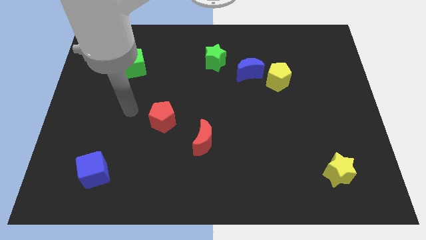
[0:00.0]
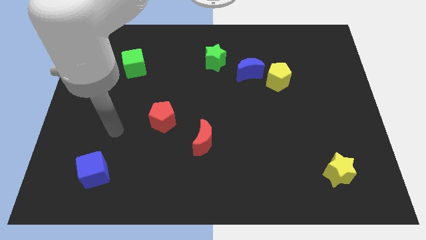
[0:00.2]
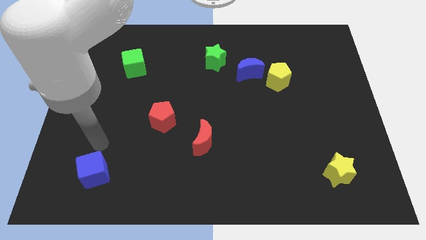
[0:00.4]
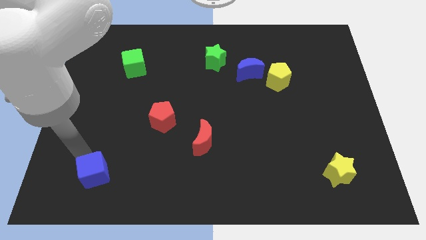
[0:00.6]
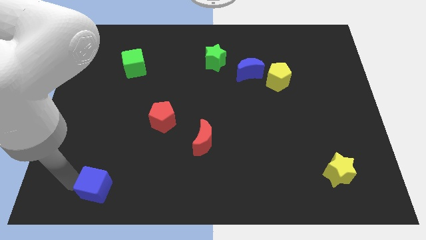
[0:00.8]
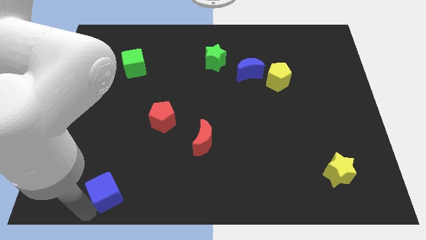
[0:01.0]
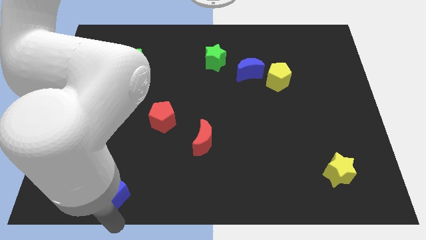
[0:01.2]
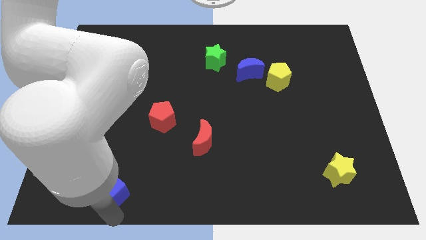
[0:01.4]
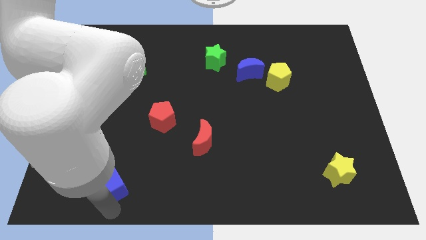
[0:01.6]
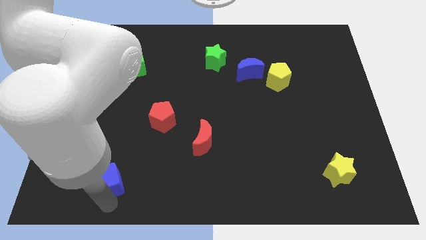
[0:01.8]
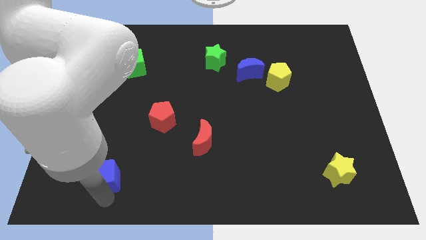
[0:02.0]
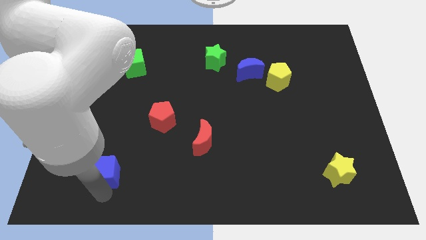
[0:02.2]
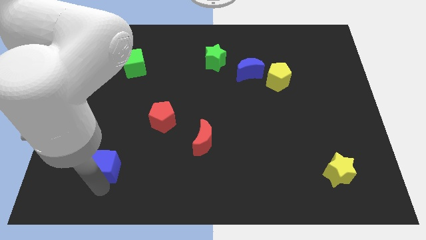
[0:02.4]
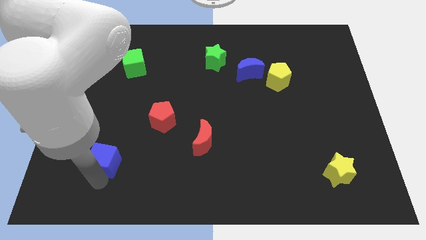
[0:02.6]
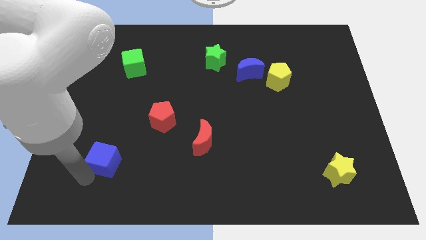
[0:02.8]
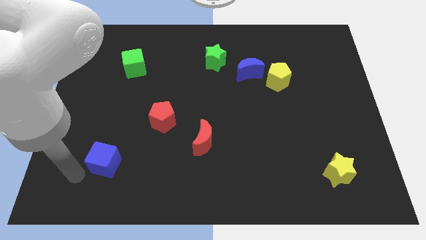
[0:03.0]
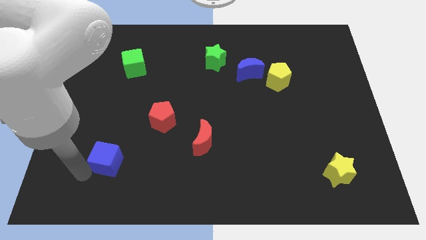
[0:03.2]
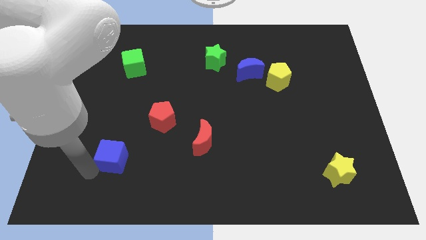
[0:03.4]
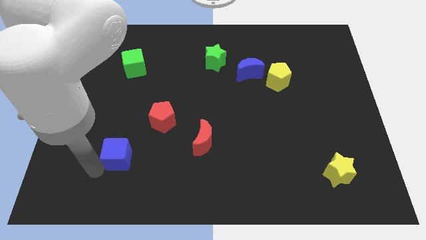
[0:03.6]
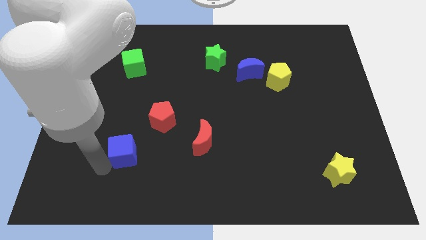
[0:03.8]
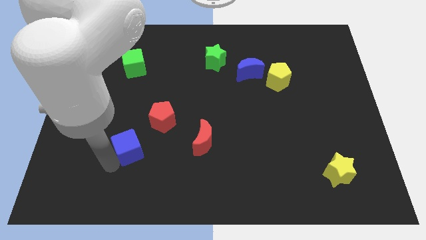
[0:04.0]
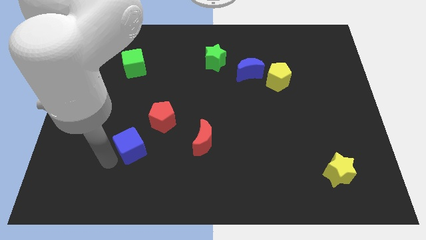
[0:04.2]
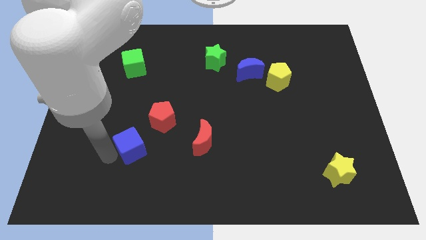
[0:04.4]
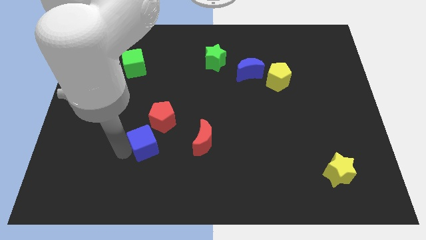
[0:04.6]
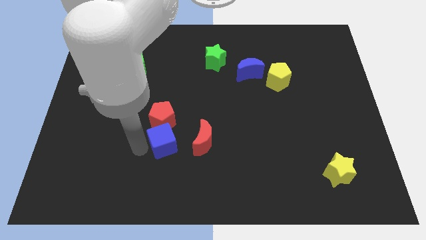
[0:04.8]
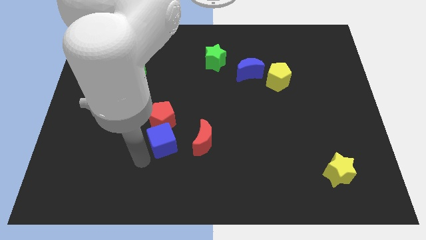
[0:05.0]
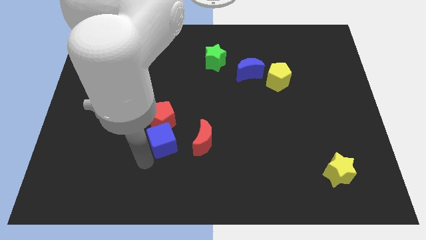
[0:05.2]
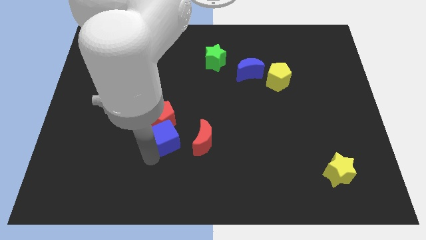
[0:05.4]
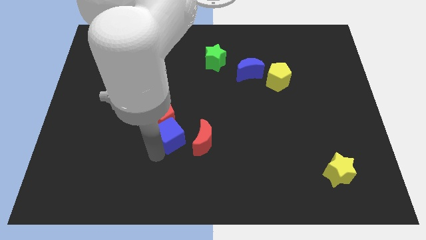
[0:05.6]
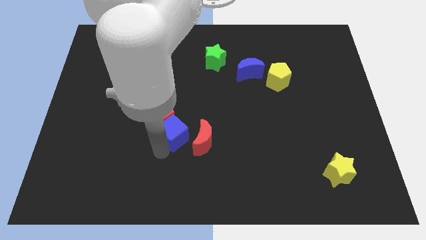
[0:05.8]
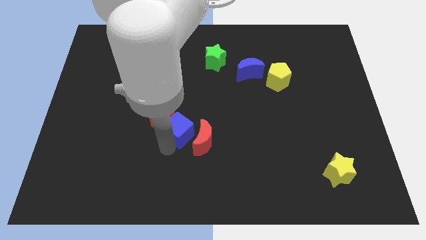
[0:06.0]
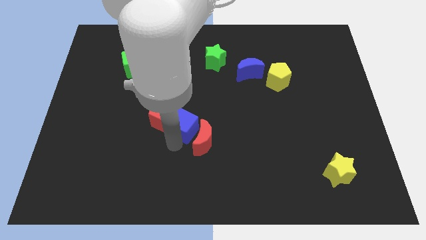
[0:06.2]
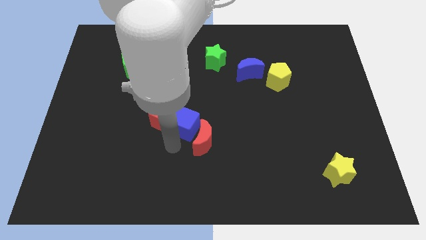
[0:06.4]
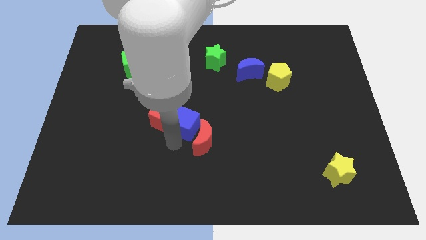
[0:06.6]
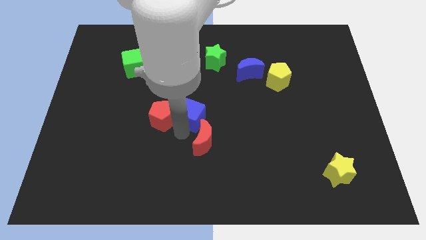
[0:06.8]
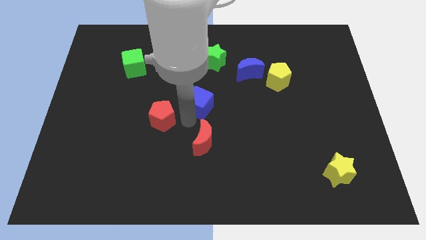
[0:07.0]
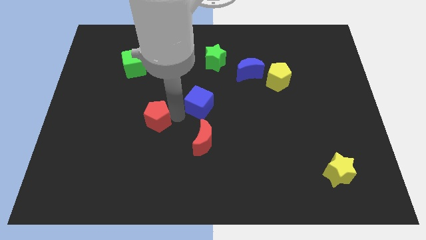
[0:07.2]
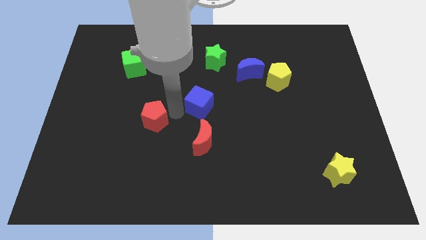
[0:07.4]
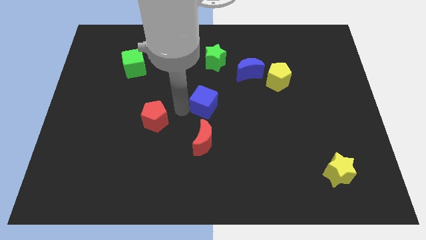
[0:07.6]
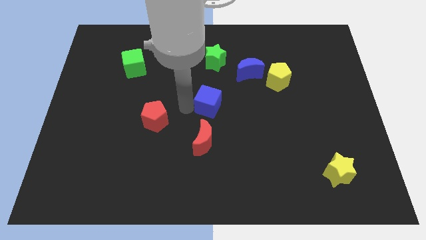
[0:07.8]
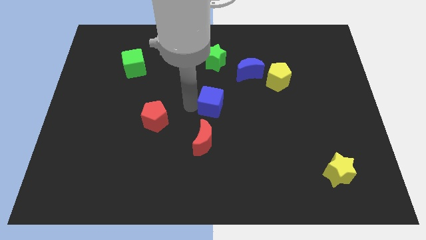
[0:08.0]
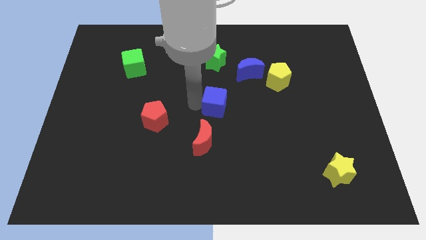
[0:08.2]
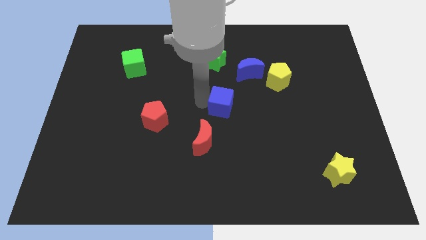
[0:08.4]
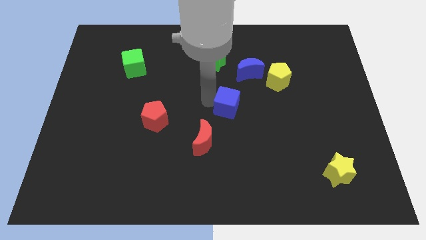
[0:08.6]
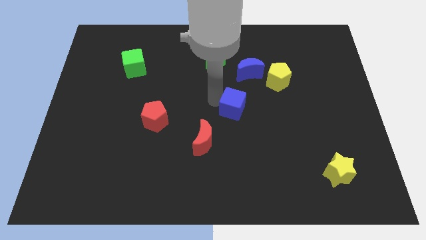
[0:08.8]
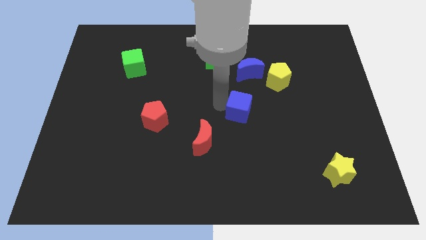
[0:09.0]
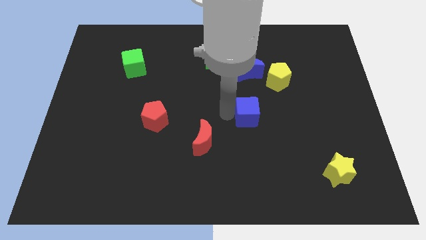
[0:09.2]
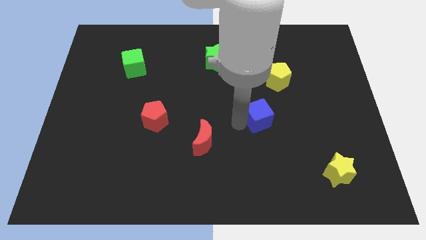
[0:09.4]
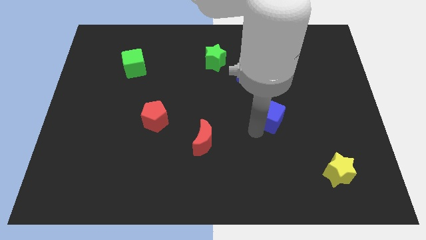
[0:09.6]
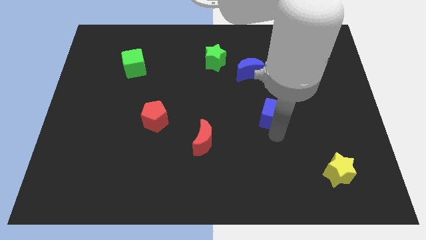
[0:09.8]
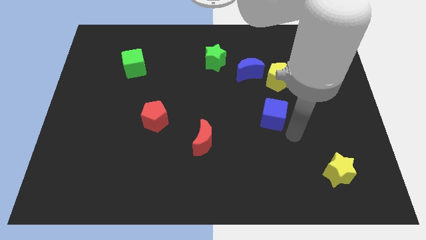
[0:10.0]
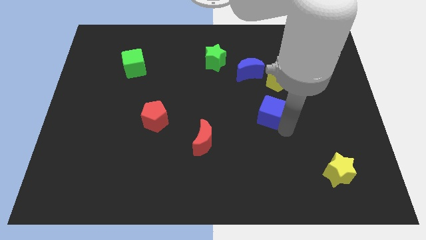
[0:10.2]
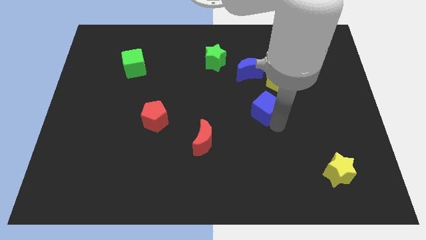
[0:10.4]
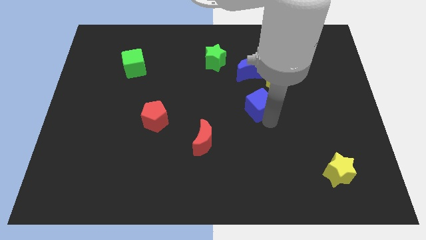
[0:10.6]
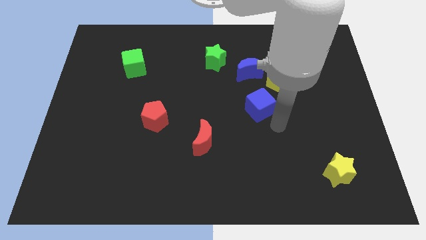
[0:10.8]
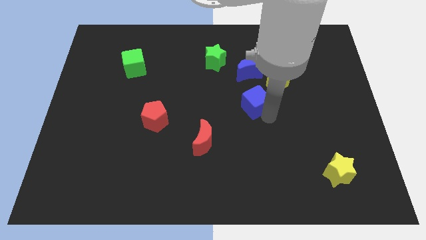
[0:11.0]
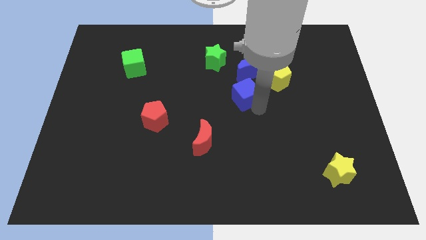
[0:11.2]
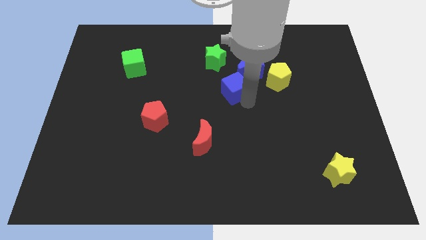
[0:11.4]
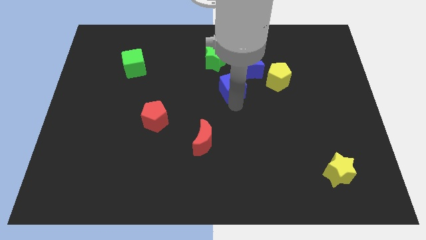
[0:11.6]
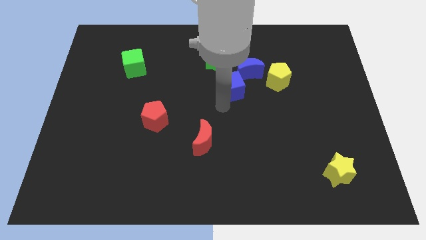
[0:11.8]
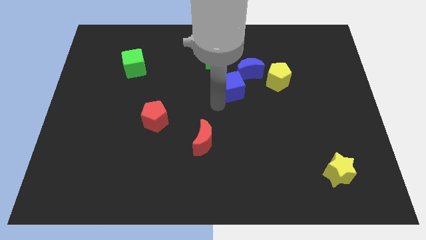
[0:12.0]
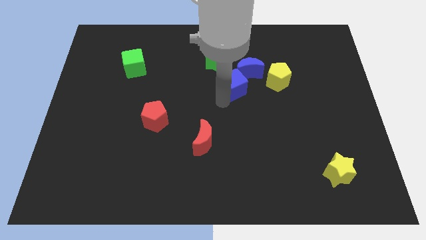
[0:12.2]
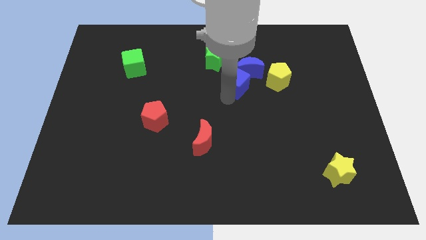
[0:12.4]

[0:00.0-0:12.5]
move the blue cube close to the blue moon

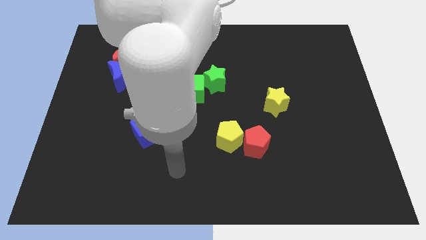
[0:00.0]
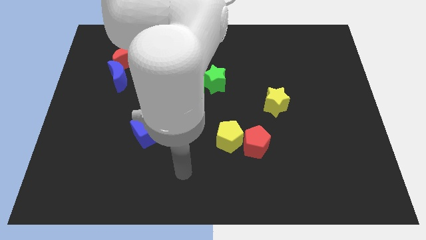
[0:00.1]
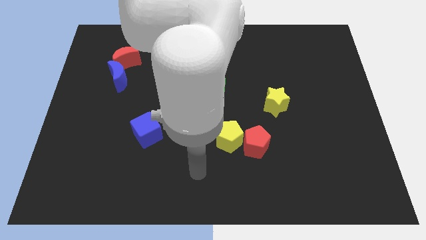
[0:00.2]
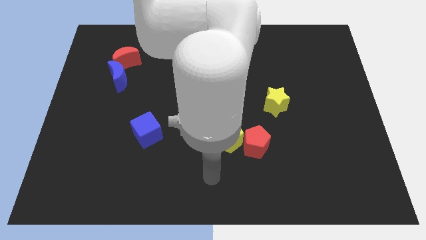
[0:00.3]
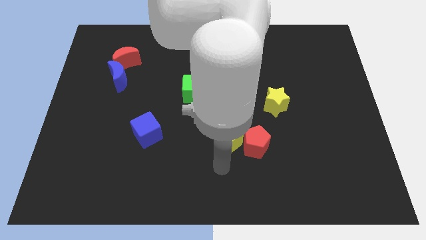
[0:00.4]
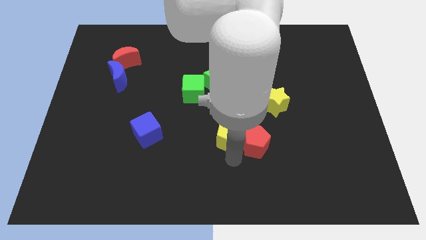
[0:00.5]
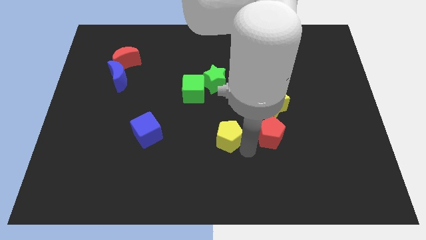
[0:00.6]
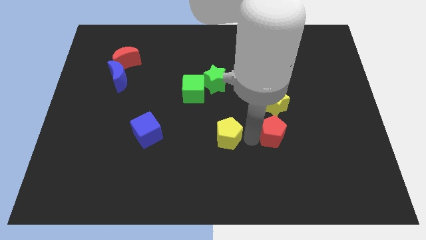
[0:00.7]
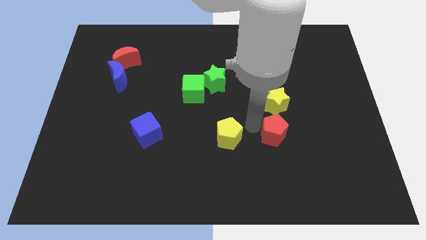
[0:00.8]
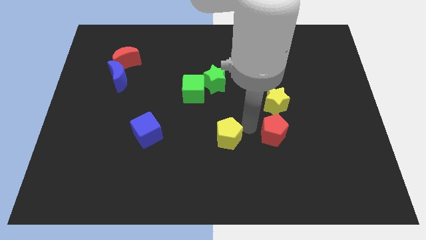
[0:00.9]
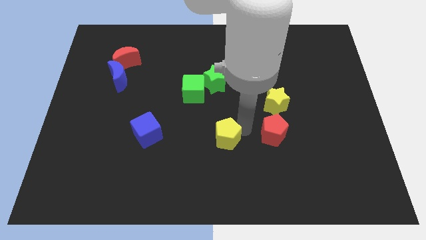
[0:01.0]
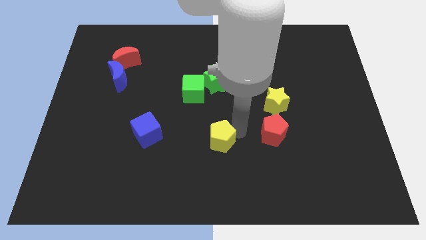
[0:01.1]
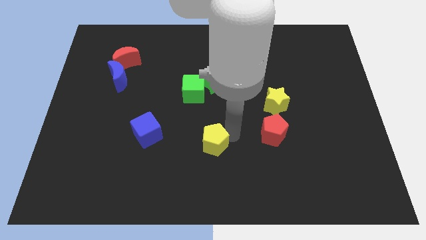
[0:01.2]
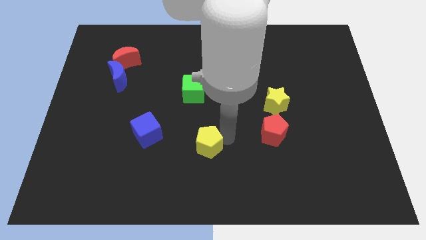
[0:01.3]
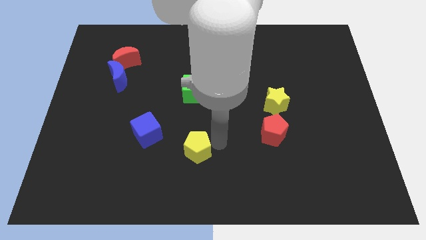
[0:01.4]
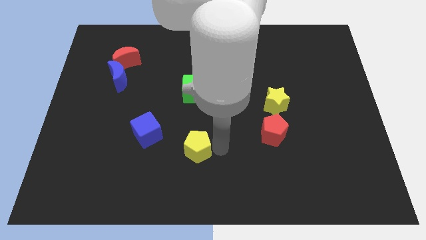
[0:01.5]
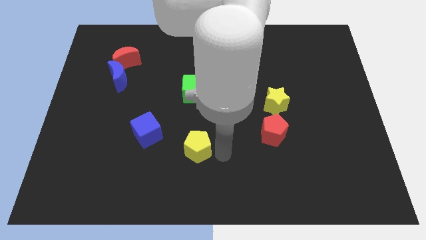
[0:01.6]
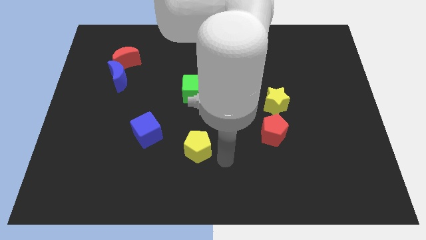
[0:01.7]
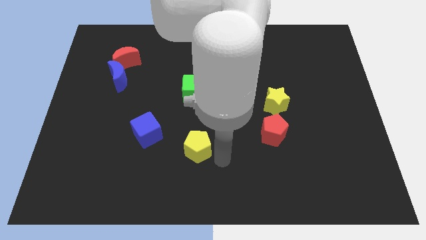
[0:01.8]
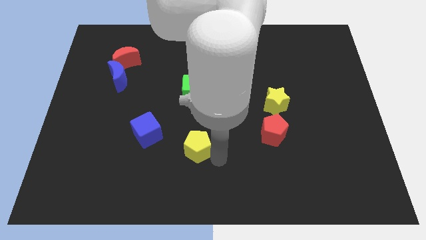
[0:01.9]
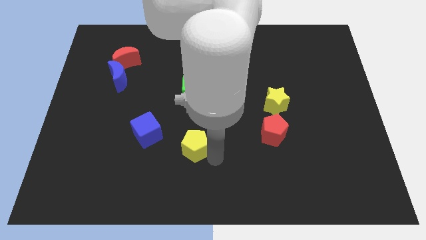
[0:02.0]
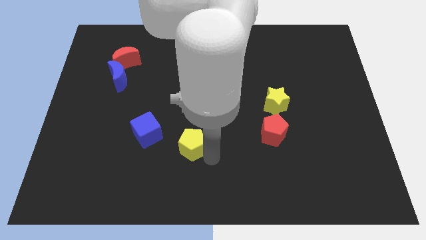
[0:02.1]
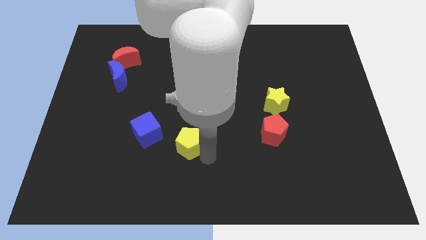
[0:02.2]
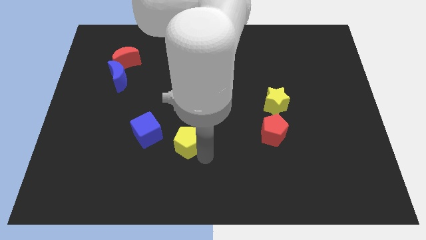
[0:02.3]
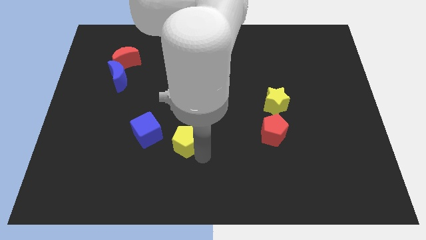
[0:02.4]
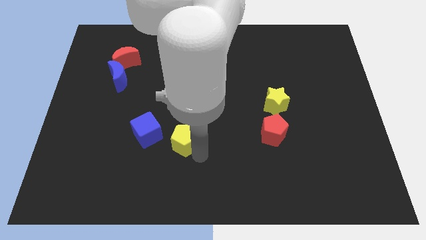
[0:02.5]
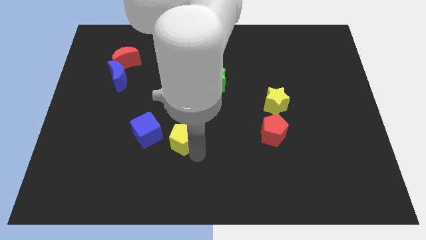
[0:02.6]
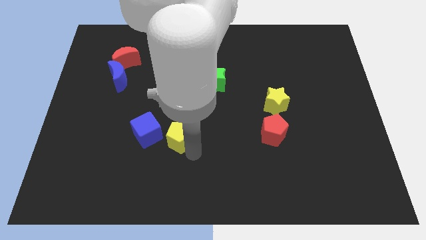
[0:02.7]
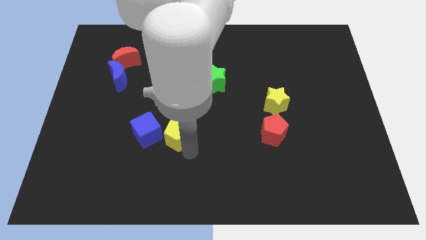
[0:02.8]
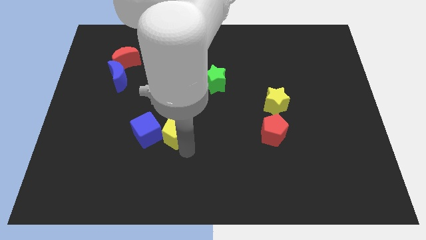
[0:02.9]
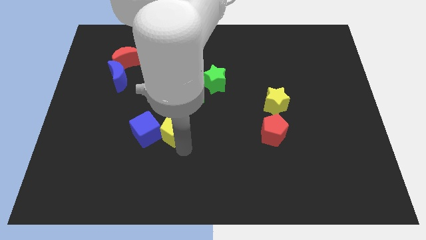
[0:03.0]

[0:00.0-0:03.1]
push the yellow pentagon to the blue cube
